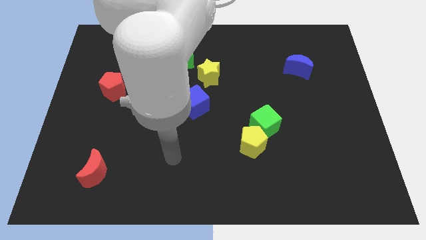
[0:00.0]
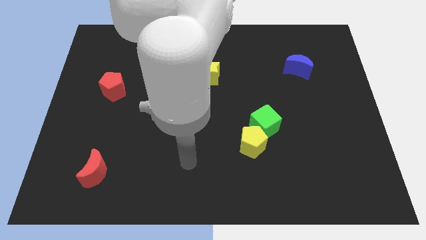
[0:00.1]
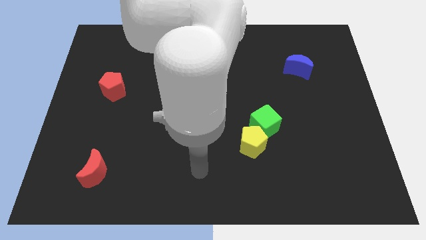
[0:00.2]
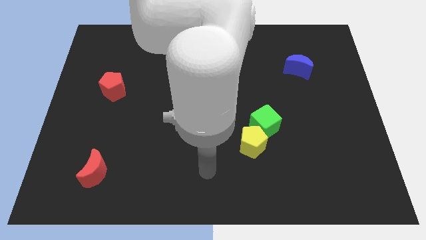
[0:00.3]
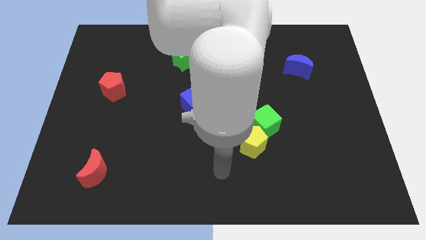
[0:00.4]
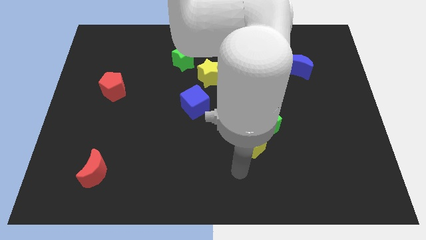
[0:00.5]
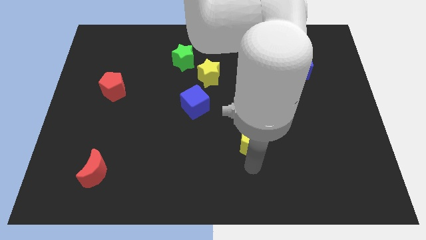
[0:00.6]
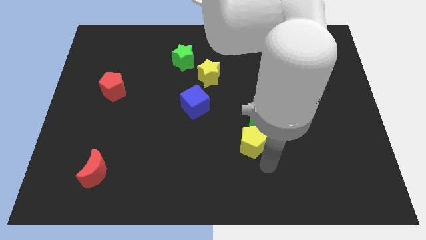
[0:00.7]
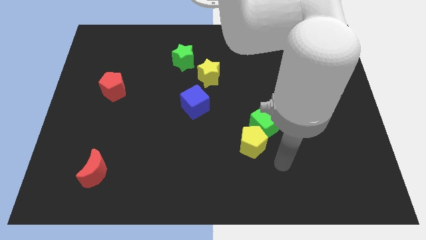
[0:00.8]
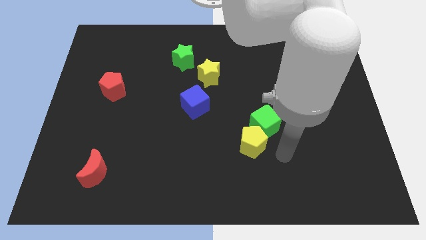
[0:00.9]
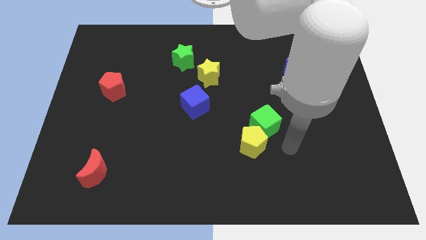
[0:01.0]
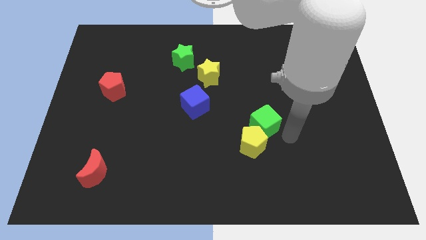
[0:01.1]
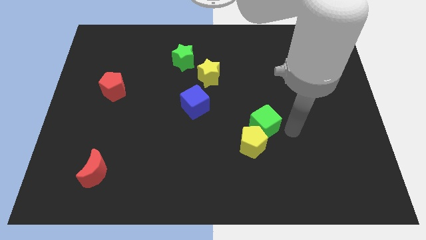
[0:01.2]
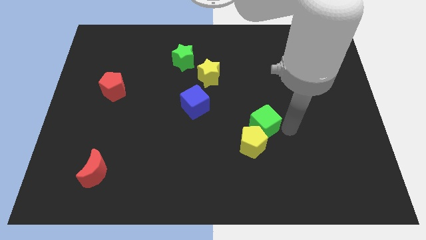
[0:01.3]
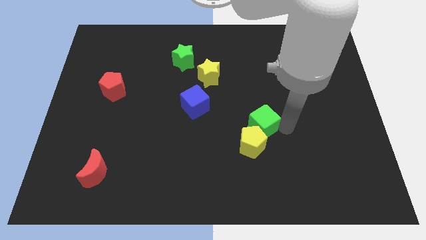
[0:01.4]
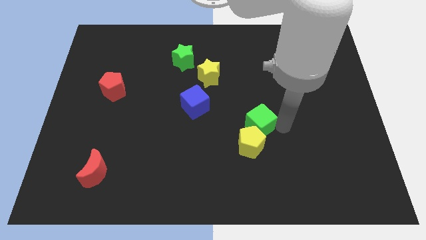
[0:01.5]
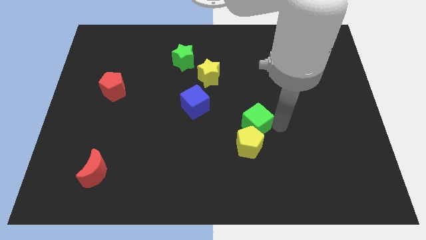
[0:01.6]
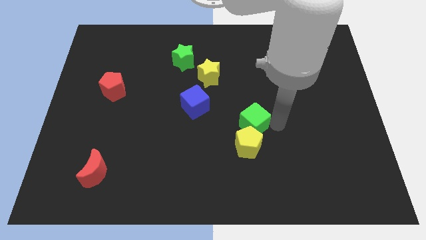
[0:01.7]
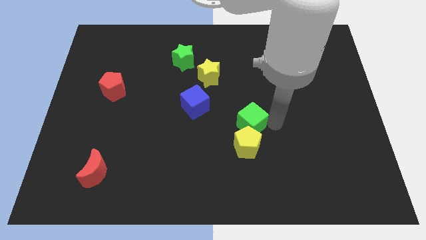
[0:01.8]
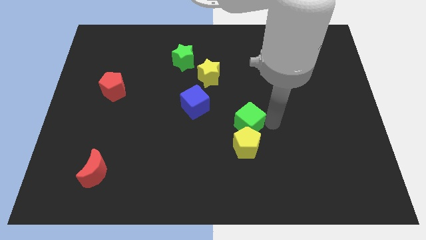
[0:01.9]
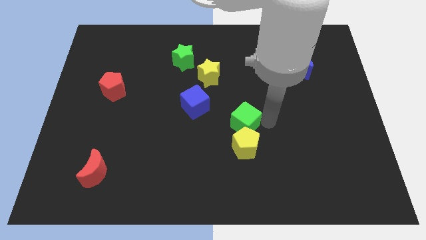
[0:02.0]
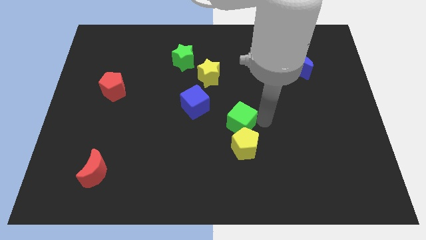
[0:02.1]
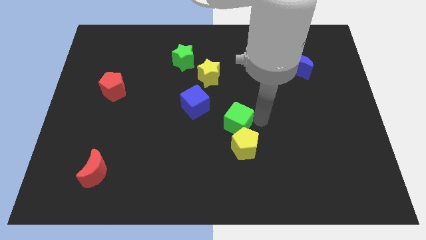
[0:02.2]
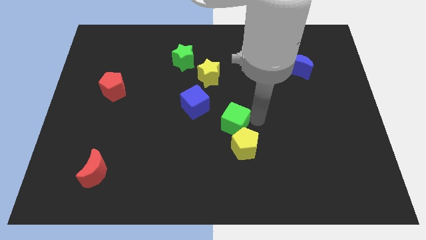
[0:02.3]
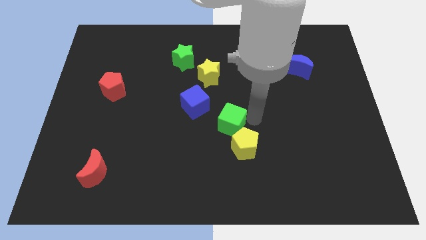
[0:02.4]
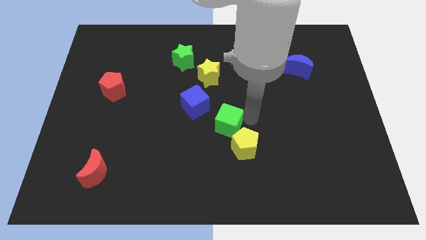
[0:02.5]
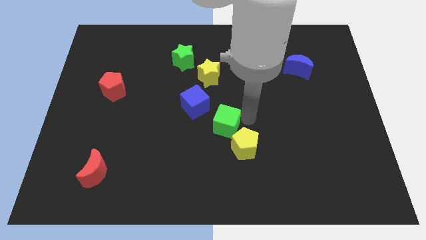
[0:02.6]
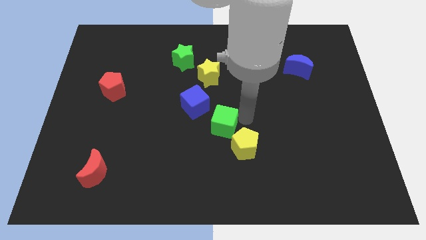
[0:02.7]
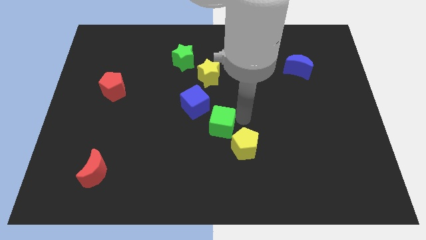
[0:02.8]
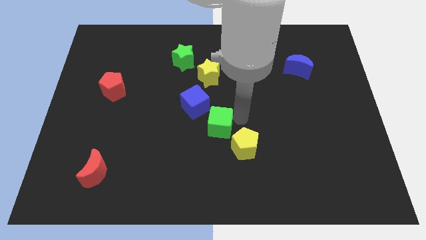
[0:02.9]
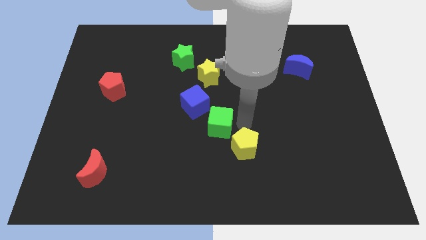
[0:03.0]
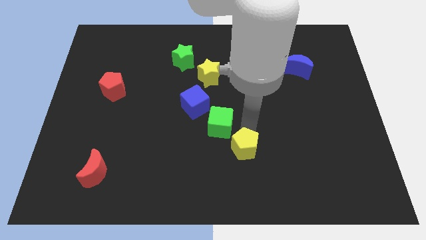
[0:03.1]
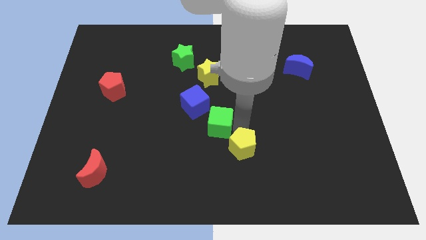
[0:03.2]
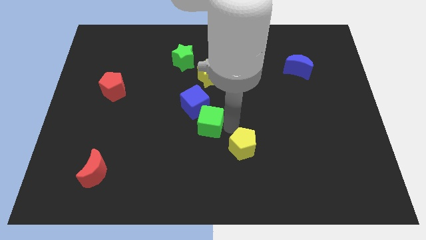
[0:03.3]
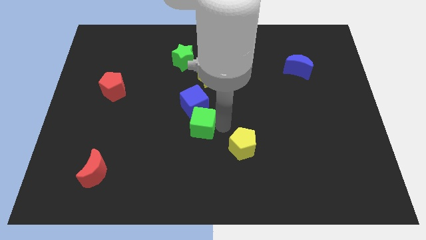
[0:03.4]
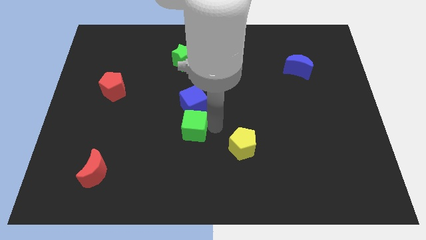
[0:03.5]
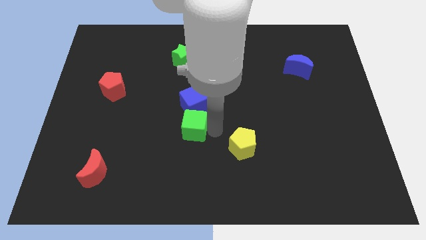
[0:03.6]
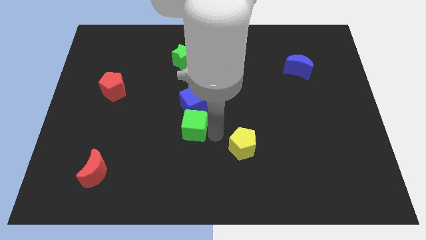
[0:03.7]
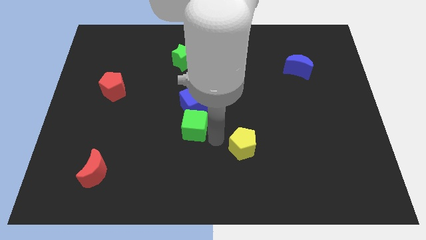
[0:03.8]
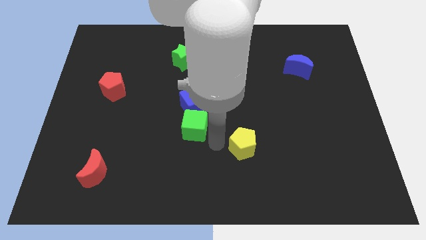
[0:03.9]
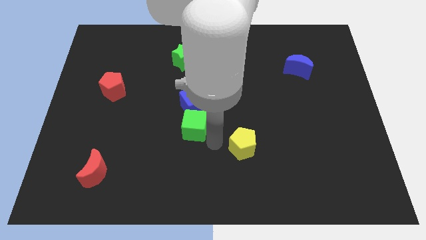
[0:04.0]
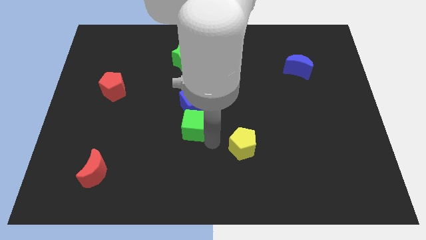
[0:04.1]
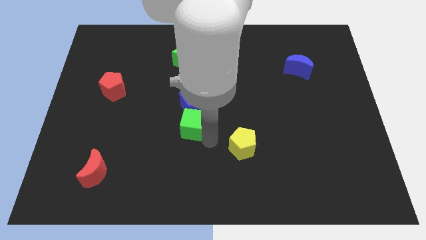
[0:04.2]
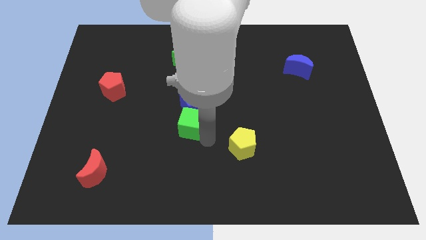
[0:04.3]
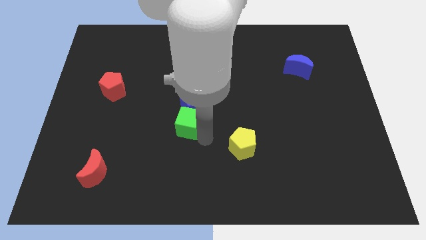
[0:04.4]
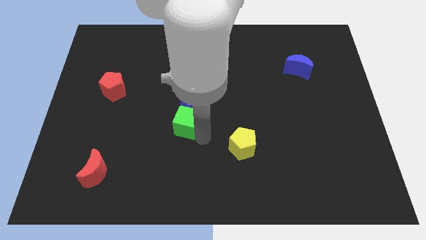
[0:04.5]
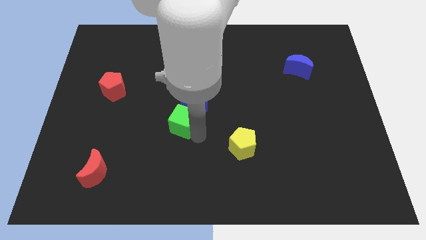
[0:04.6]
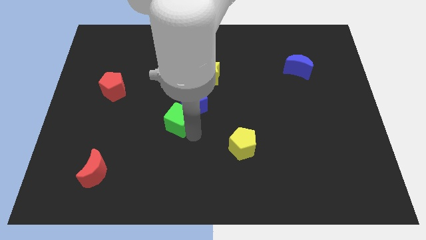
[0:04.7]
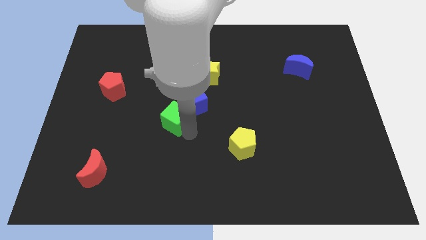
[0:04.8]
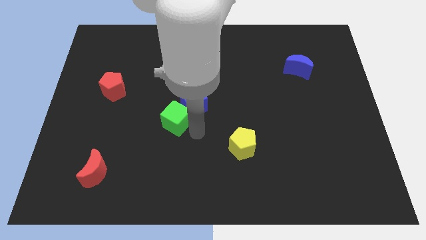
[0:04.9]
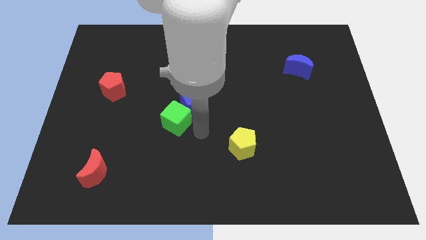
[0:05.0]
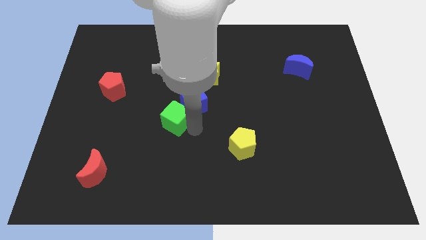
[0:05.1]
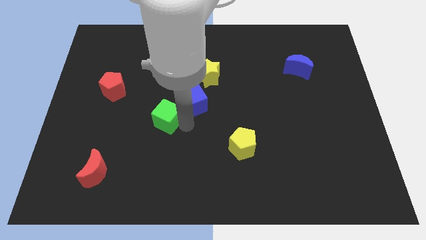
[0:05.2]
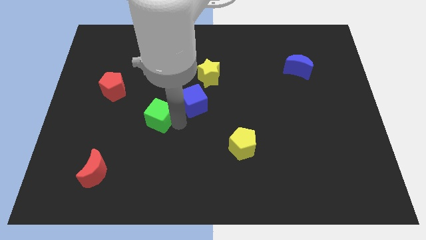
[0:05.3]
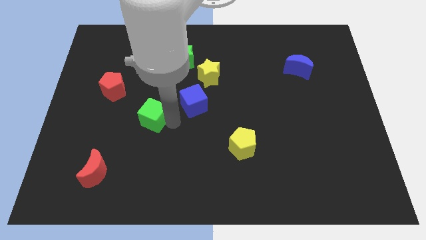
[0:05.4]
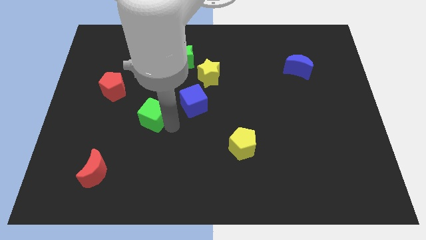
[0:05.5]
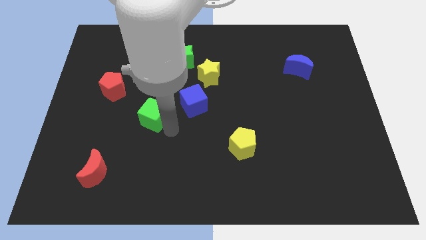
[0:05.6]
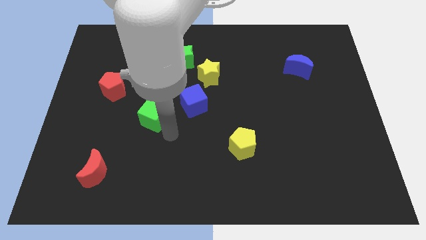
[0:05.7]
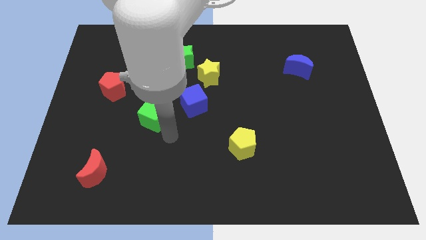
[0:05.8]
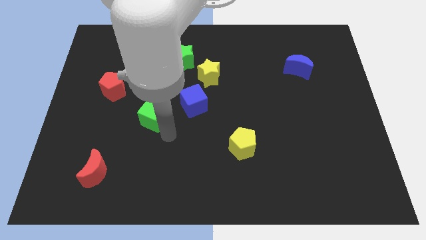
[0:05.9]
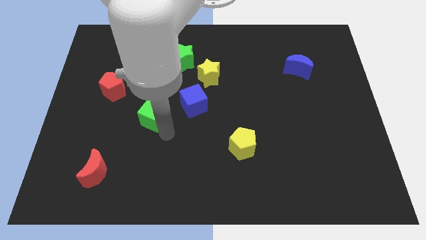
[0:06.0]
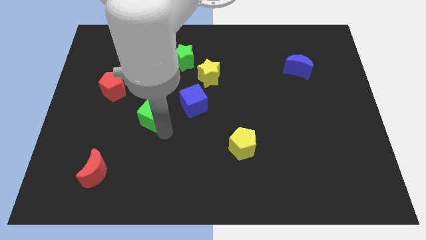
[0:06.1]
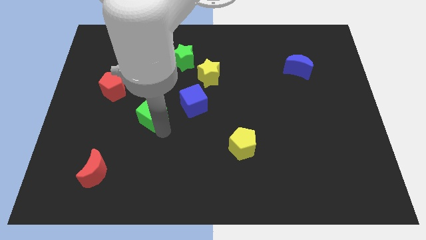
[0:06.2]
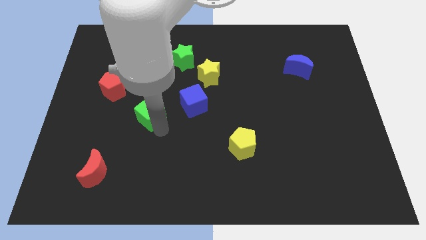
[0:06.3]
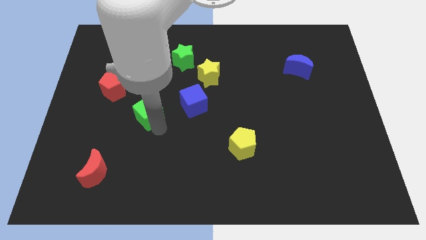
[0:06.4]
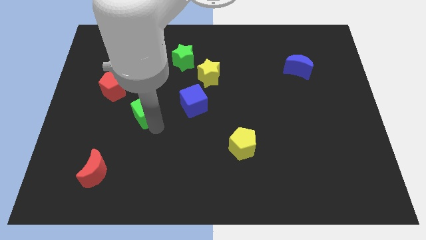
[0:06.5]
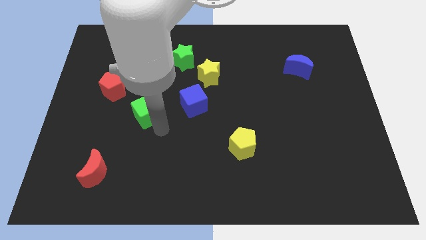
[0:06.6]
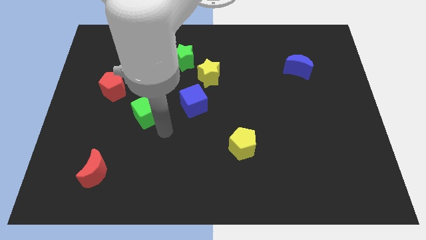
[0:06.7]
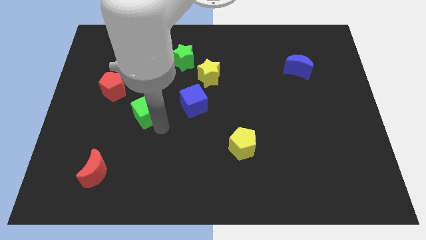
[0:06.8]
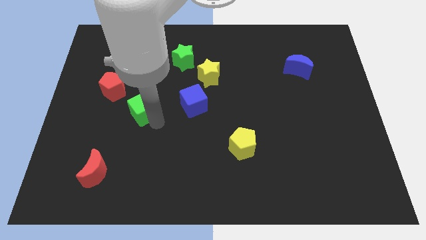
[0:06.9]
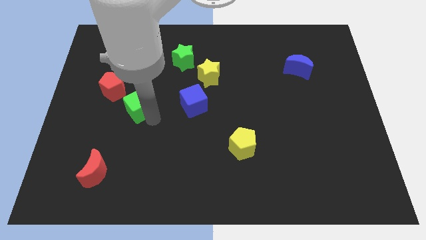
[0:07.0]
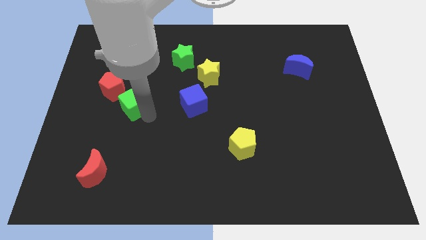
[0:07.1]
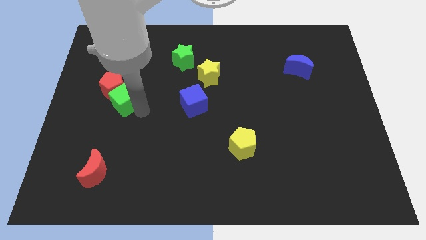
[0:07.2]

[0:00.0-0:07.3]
push the green cube towards the red pentagon

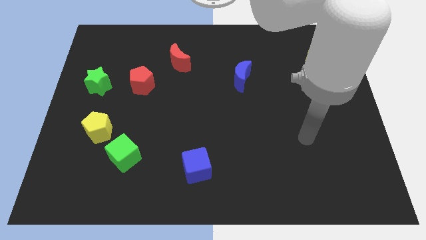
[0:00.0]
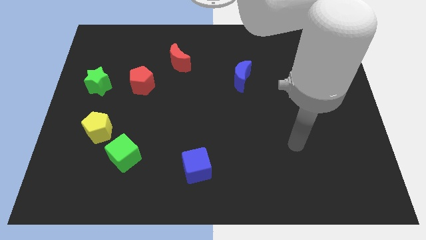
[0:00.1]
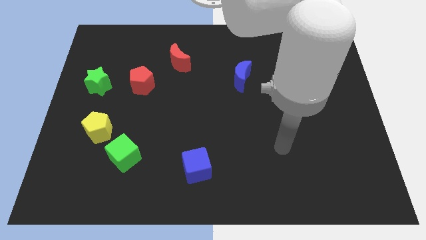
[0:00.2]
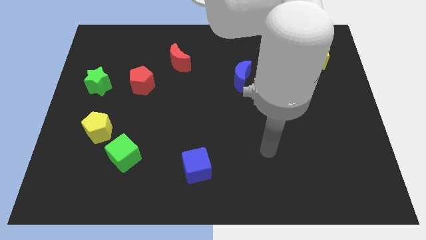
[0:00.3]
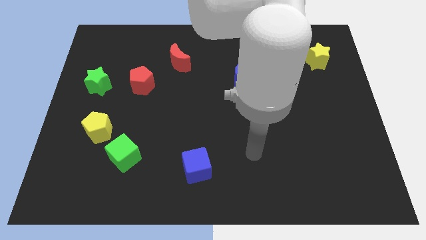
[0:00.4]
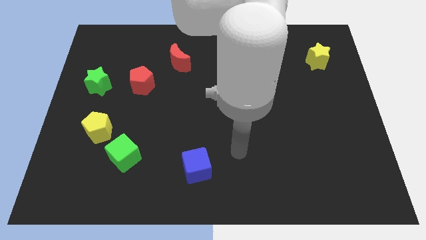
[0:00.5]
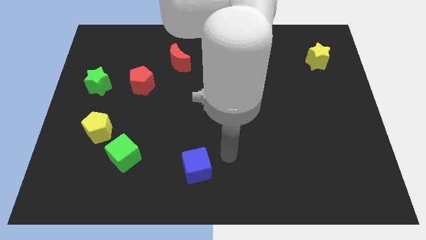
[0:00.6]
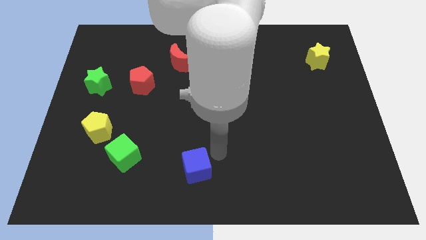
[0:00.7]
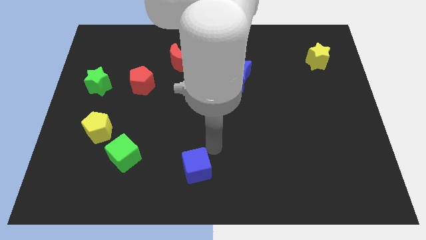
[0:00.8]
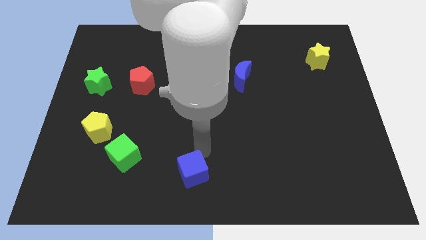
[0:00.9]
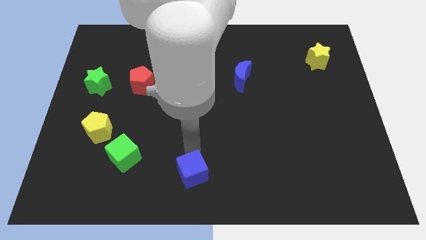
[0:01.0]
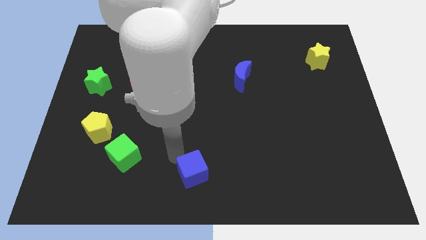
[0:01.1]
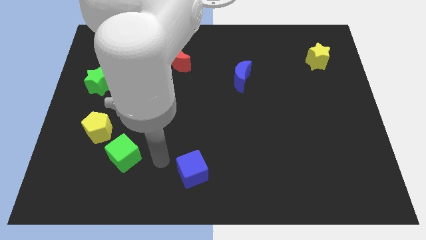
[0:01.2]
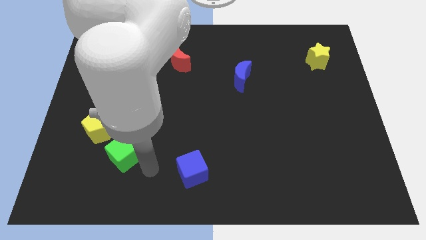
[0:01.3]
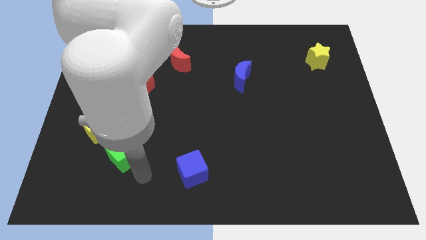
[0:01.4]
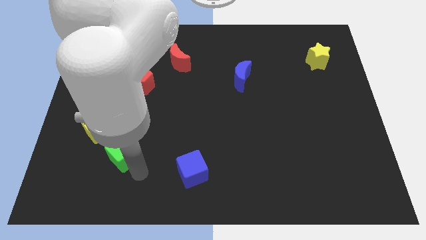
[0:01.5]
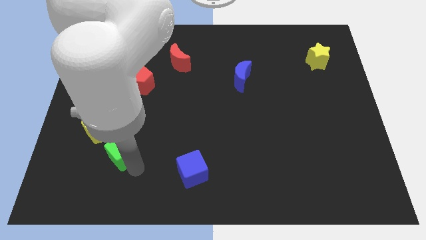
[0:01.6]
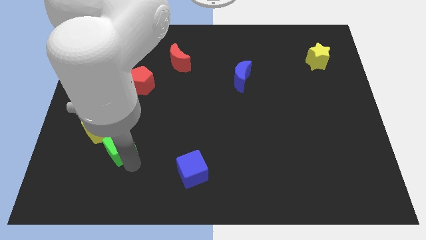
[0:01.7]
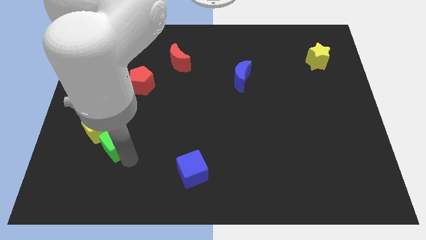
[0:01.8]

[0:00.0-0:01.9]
put the green cube close to the yellow pentagon
